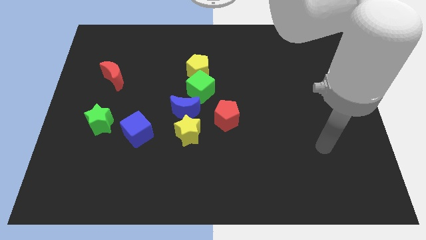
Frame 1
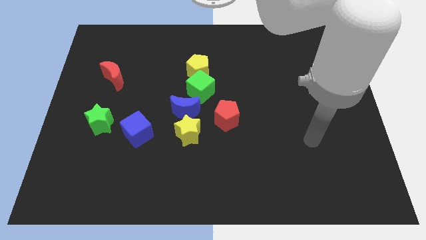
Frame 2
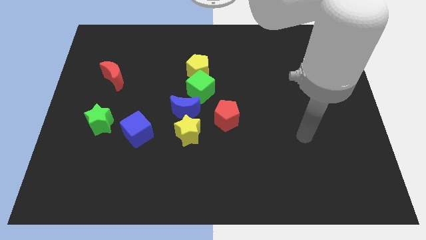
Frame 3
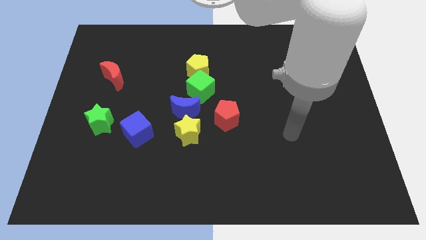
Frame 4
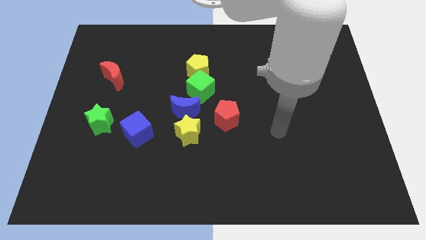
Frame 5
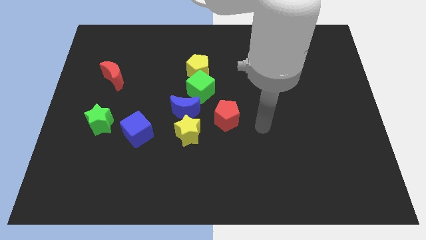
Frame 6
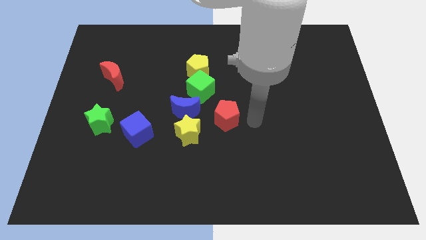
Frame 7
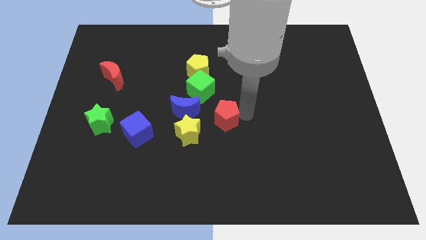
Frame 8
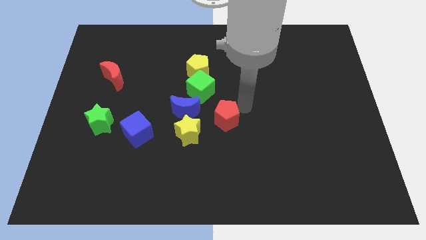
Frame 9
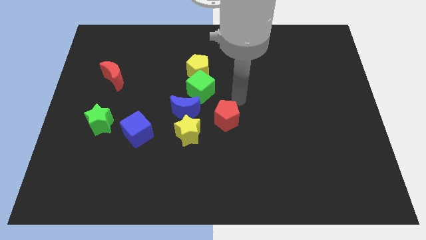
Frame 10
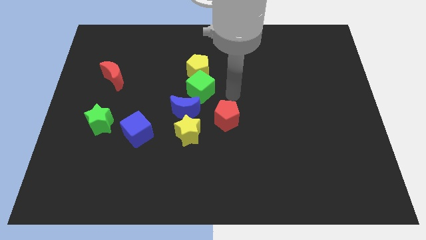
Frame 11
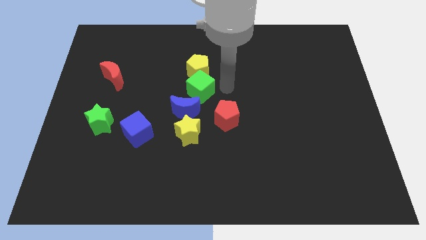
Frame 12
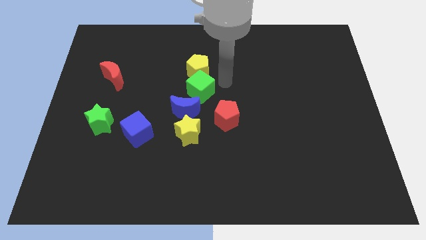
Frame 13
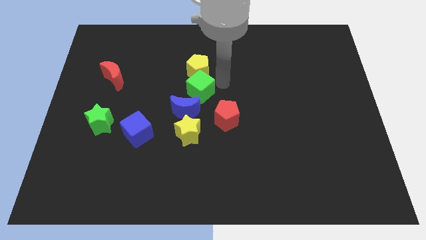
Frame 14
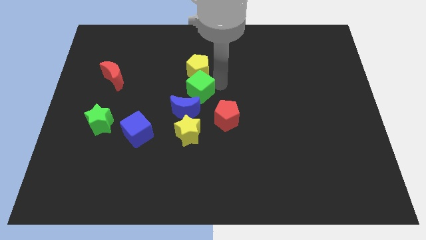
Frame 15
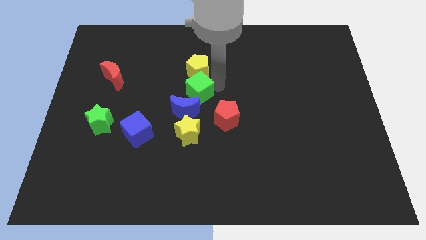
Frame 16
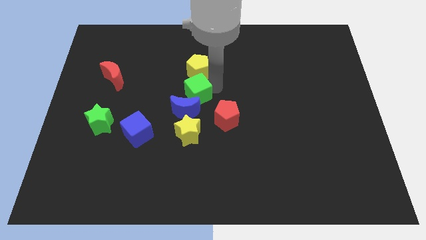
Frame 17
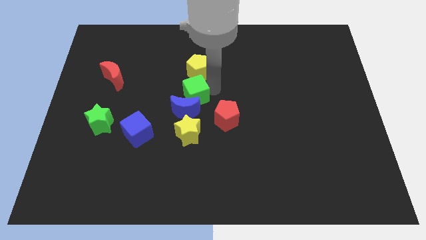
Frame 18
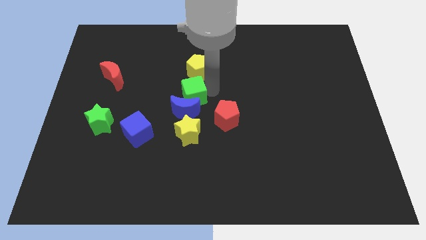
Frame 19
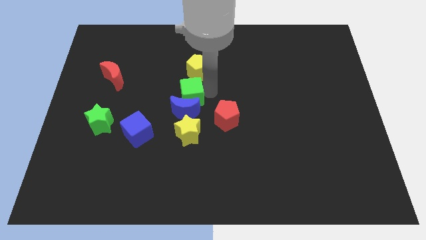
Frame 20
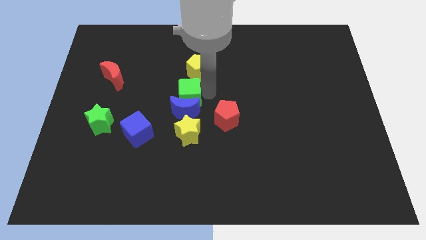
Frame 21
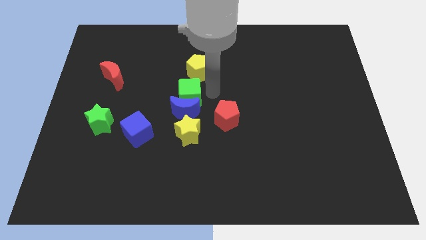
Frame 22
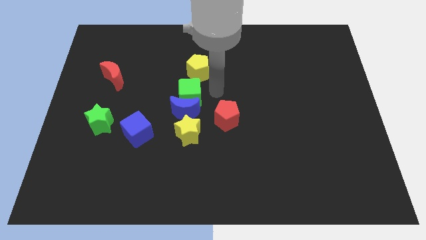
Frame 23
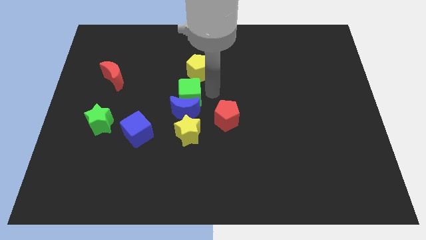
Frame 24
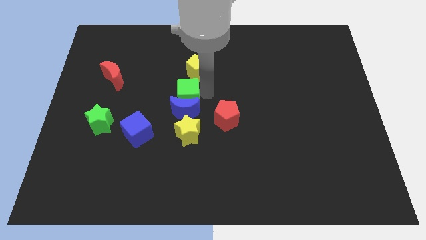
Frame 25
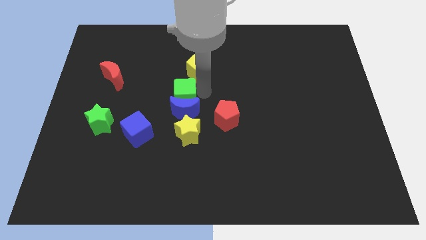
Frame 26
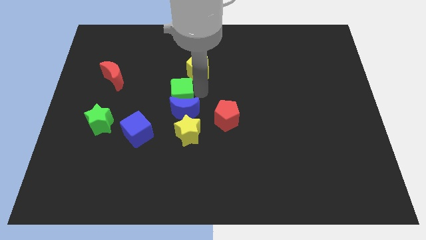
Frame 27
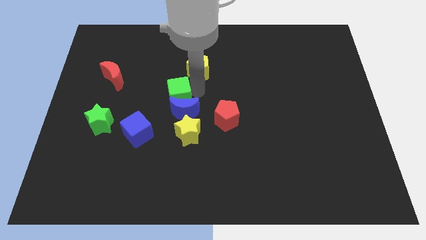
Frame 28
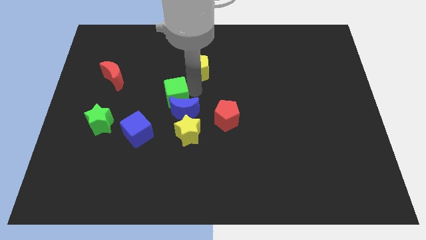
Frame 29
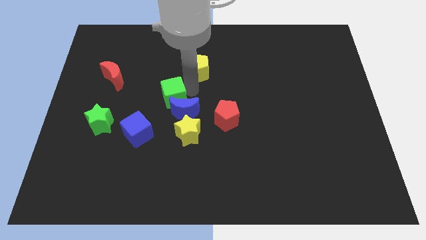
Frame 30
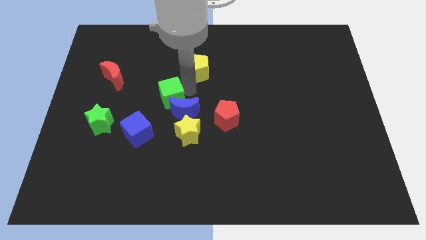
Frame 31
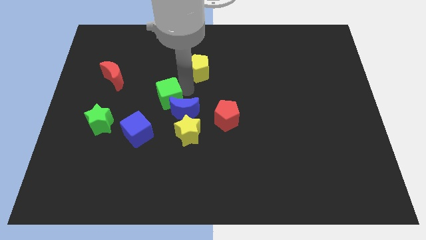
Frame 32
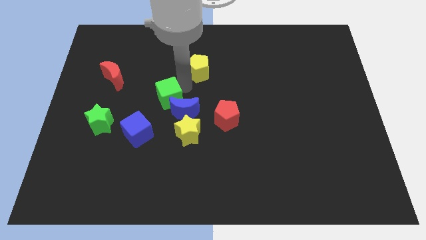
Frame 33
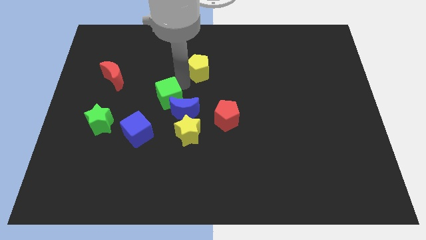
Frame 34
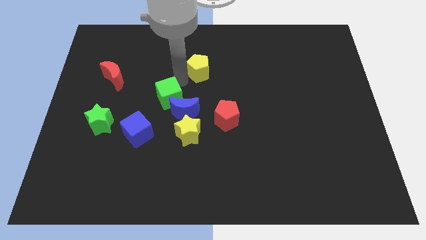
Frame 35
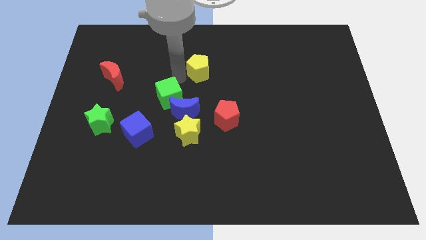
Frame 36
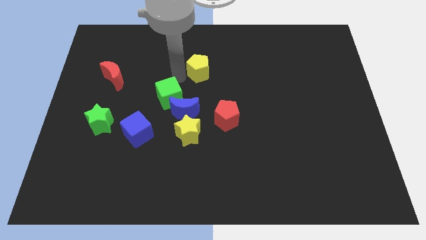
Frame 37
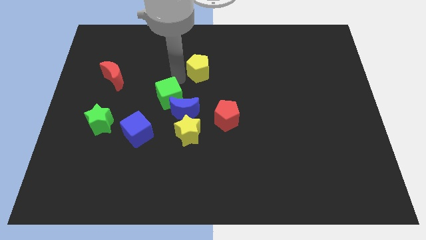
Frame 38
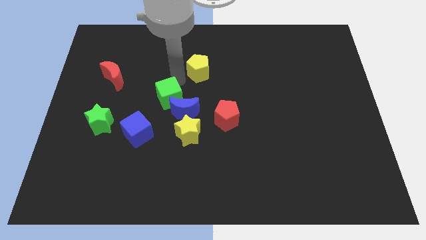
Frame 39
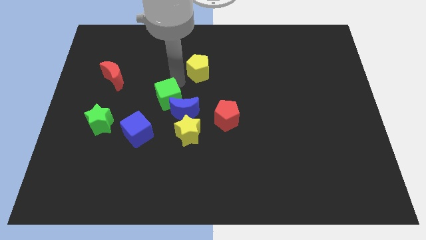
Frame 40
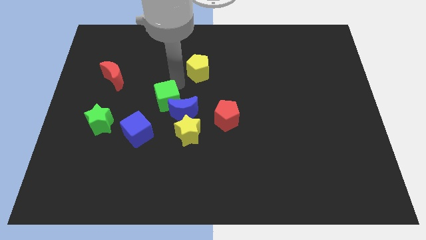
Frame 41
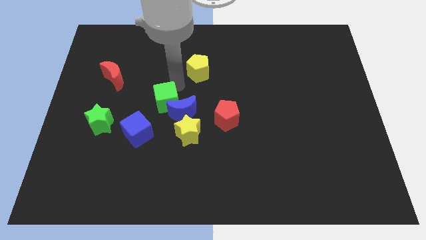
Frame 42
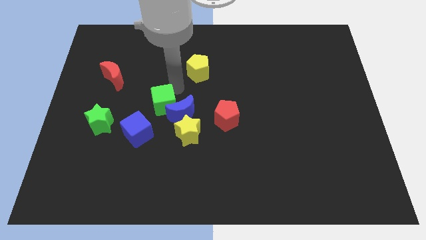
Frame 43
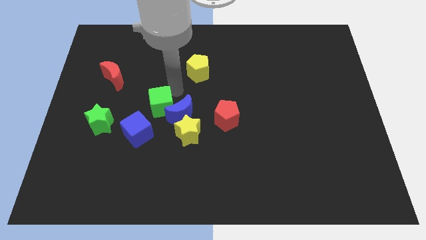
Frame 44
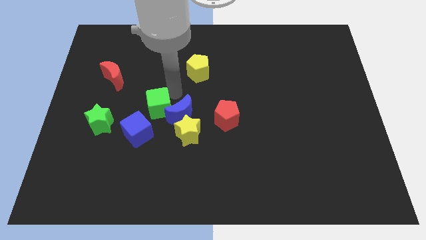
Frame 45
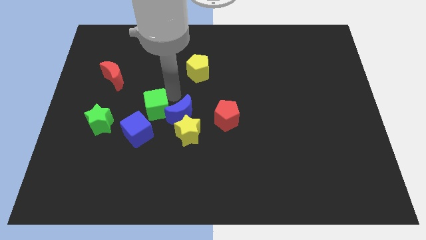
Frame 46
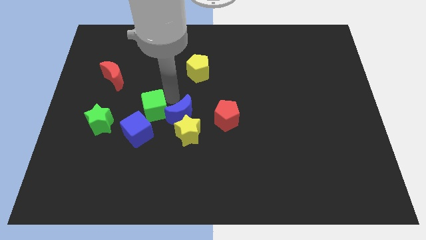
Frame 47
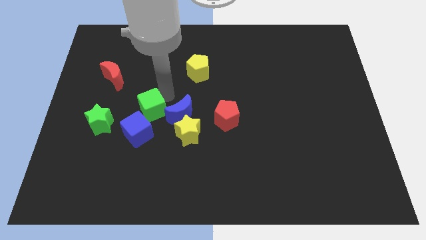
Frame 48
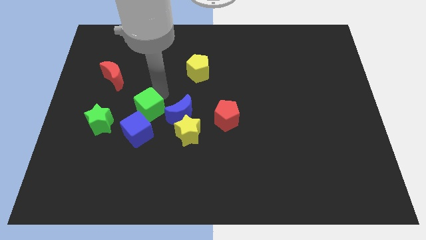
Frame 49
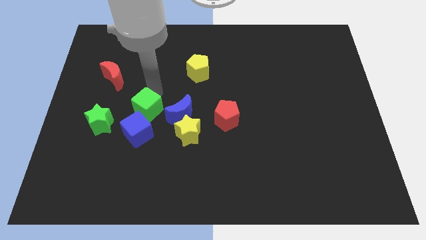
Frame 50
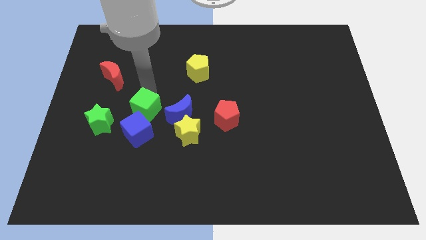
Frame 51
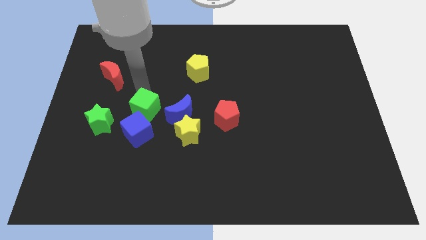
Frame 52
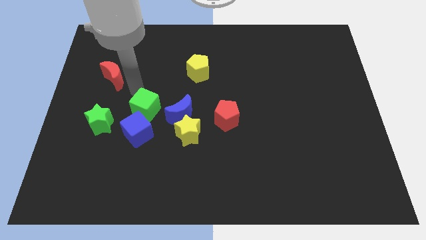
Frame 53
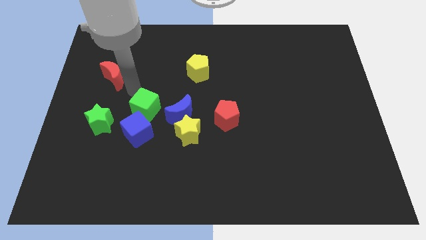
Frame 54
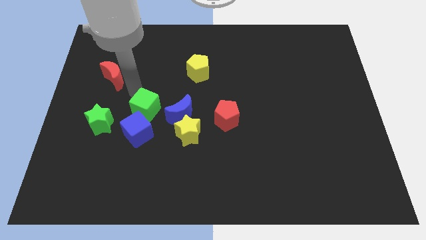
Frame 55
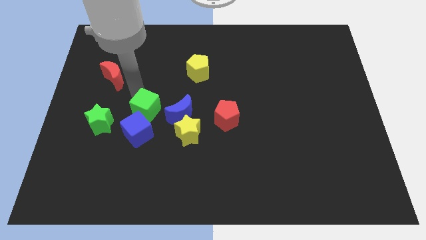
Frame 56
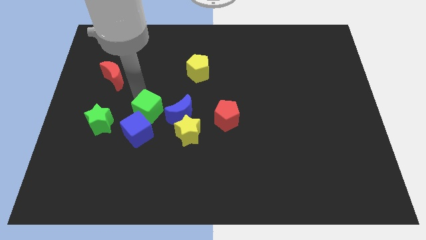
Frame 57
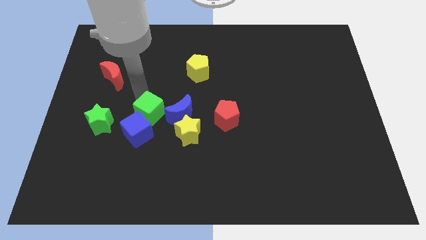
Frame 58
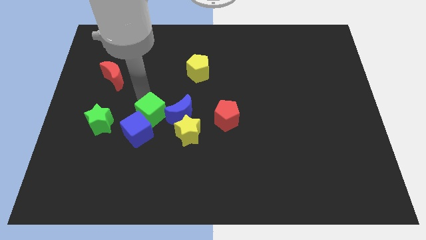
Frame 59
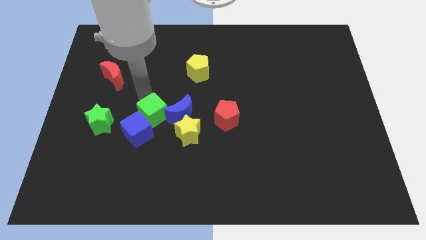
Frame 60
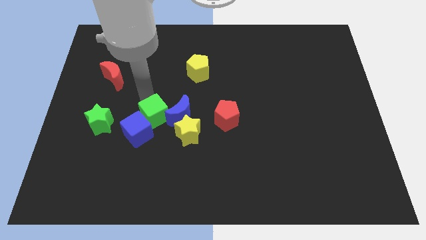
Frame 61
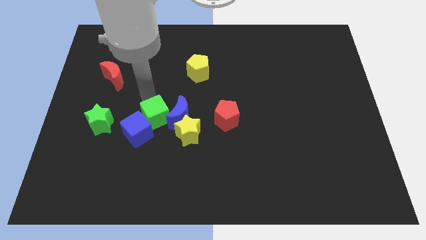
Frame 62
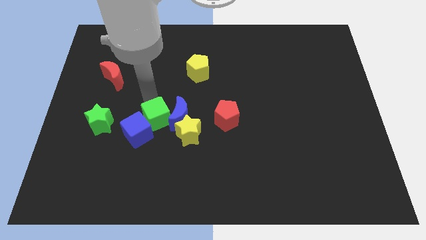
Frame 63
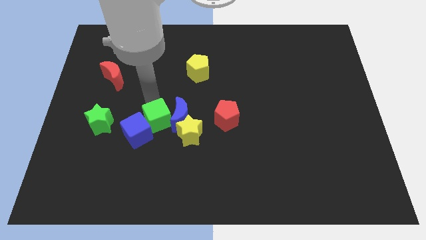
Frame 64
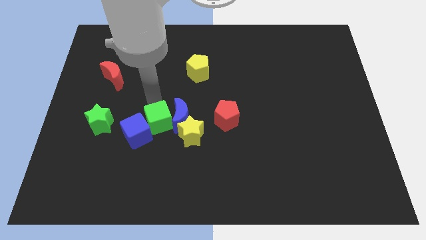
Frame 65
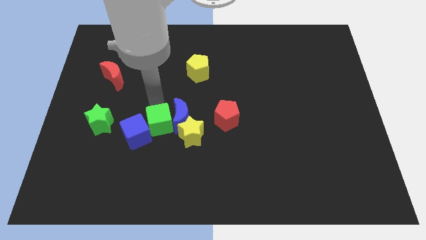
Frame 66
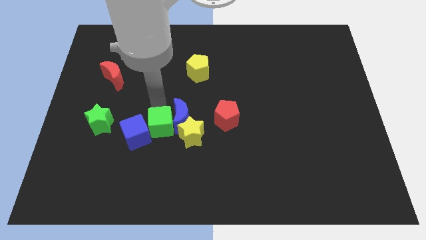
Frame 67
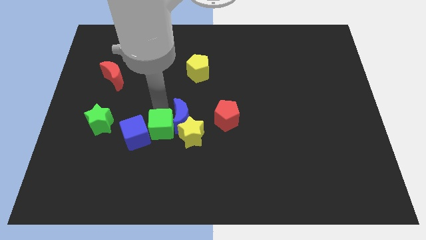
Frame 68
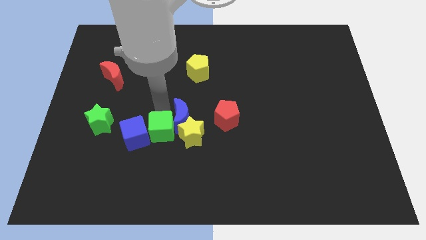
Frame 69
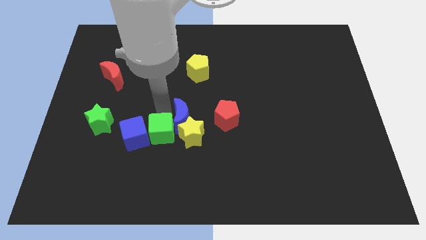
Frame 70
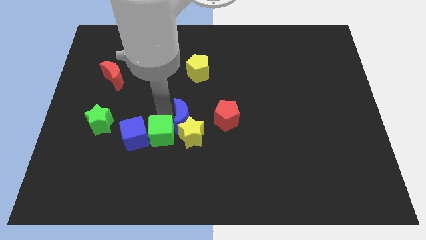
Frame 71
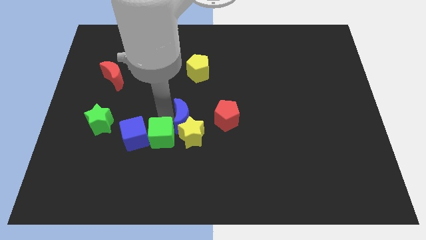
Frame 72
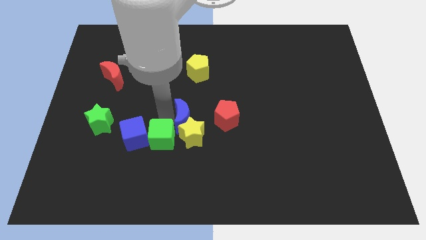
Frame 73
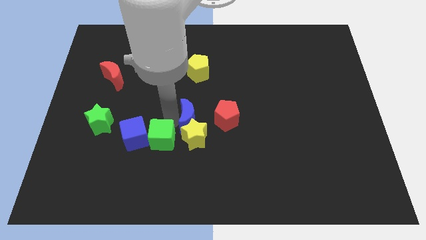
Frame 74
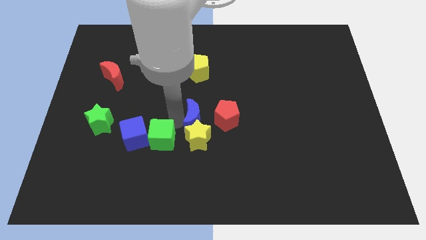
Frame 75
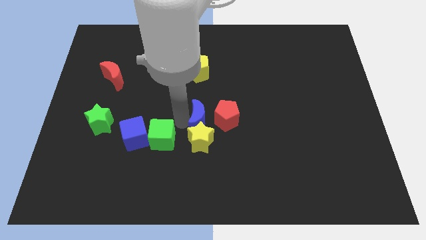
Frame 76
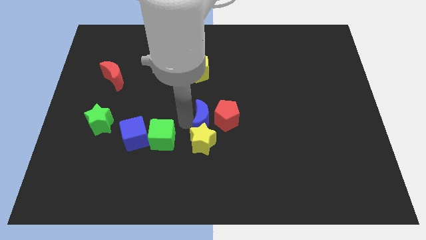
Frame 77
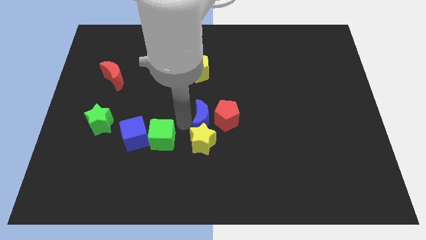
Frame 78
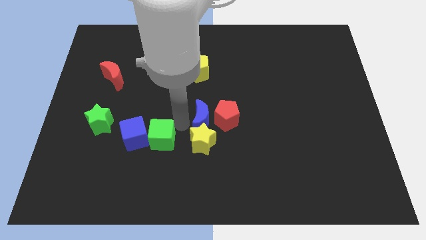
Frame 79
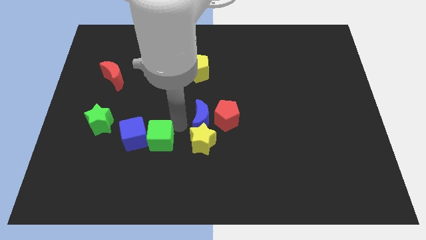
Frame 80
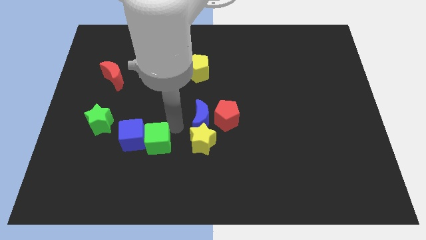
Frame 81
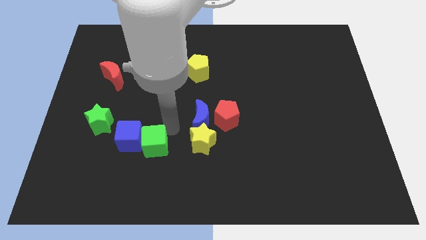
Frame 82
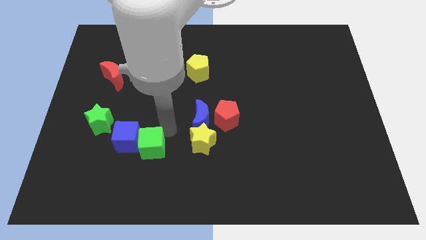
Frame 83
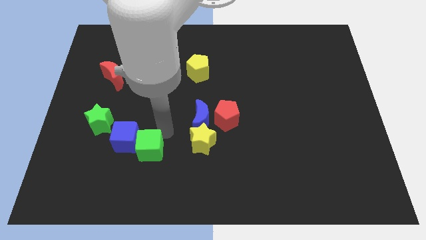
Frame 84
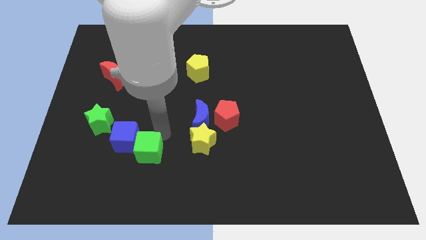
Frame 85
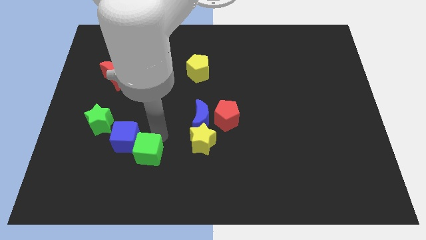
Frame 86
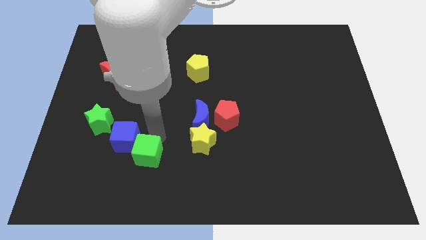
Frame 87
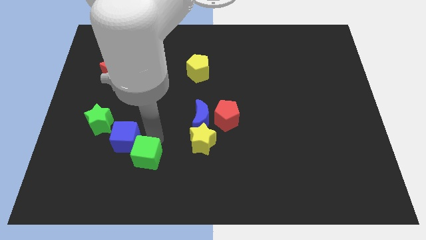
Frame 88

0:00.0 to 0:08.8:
move the green cube downwards and to the left
